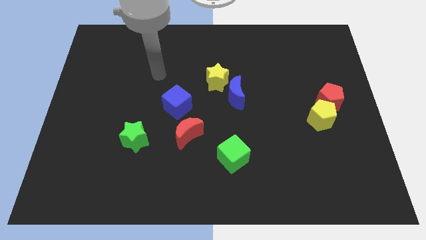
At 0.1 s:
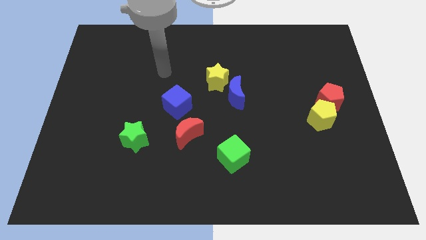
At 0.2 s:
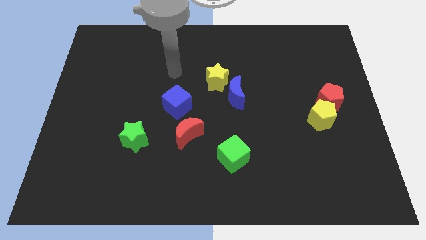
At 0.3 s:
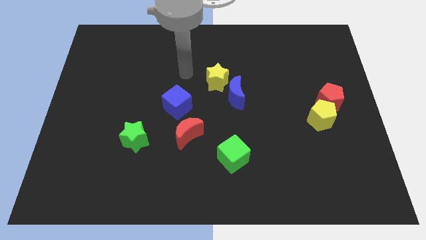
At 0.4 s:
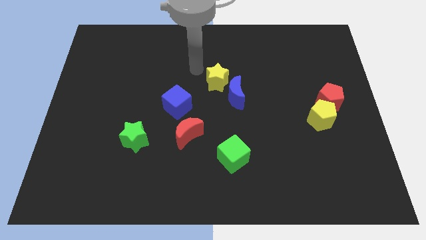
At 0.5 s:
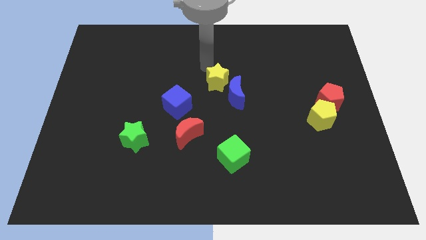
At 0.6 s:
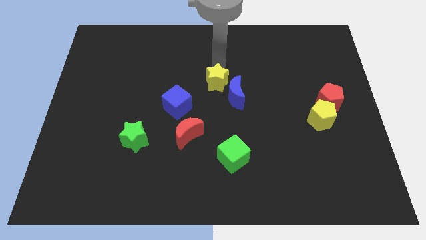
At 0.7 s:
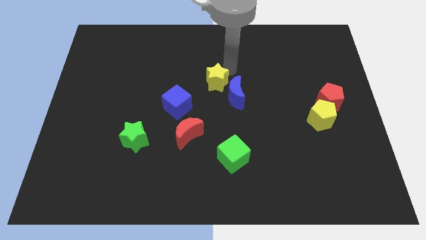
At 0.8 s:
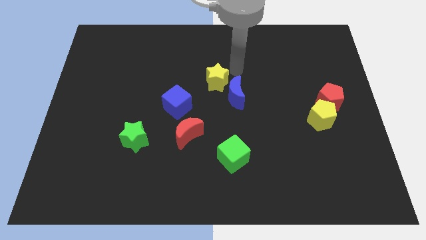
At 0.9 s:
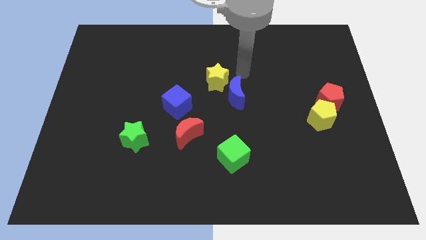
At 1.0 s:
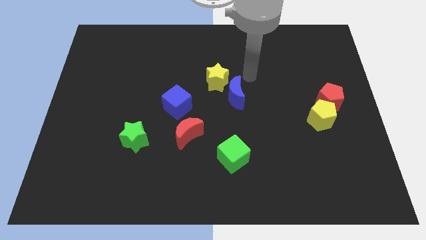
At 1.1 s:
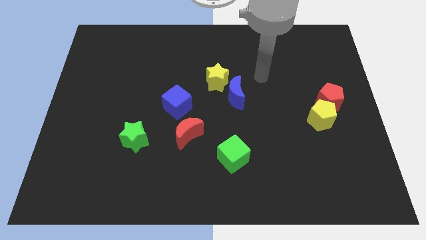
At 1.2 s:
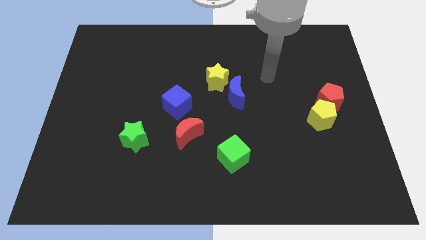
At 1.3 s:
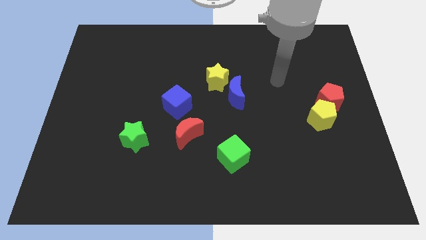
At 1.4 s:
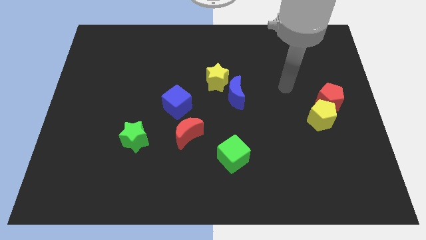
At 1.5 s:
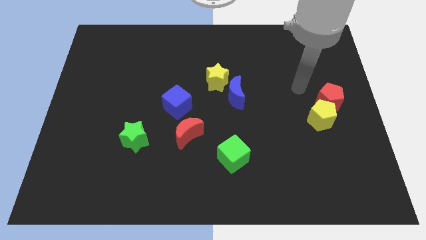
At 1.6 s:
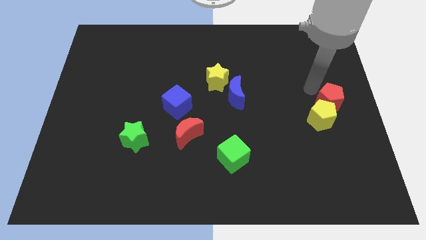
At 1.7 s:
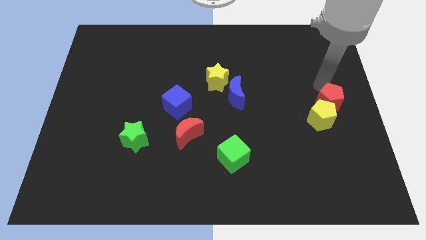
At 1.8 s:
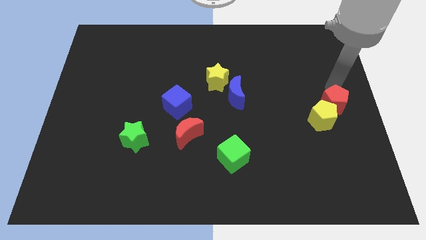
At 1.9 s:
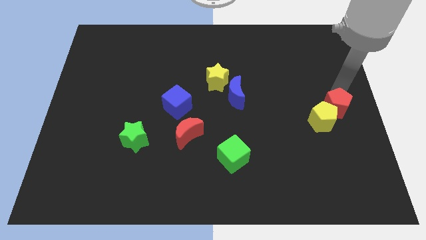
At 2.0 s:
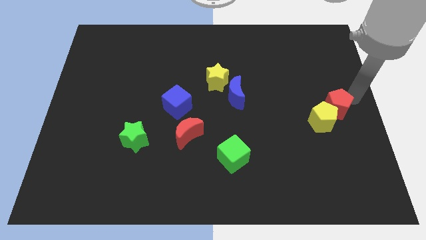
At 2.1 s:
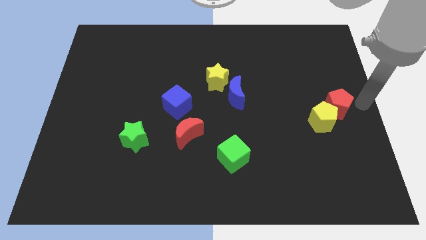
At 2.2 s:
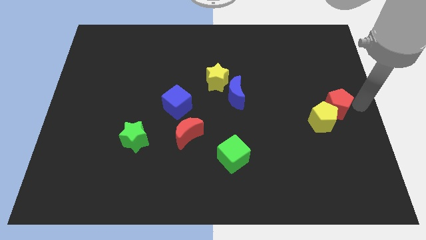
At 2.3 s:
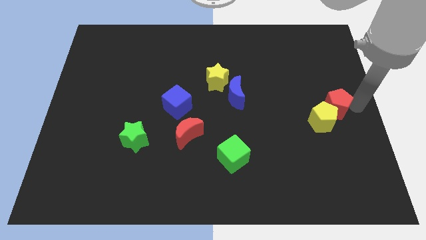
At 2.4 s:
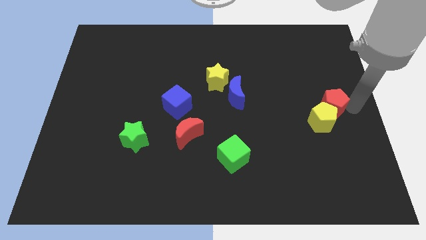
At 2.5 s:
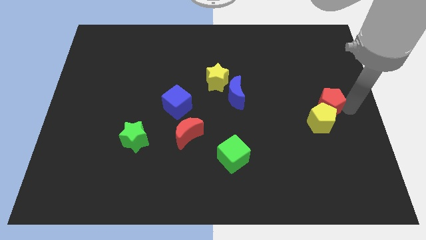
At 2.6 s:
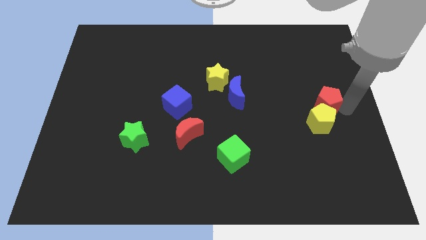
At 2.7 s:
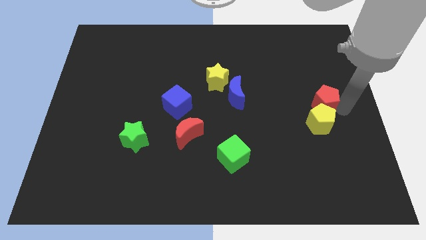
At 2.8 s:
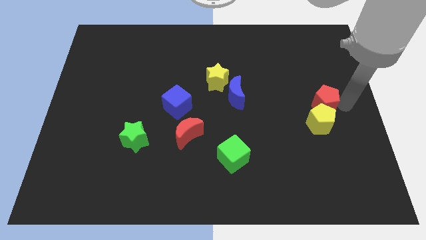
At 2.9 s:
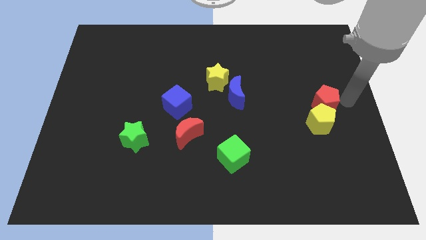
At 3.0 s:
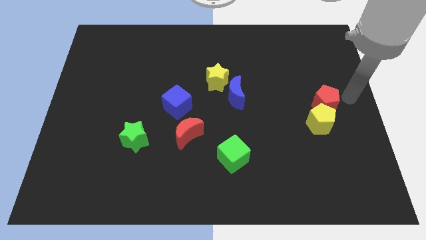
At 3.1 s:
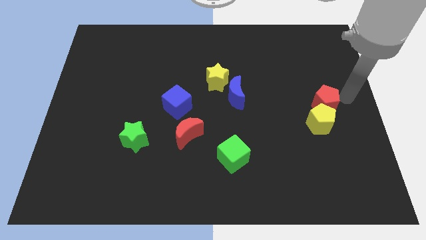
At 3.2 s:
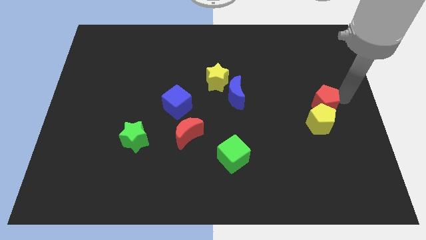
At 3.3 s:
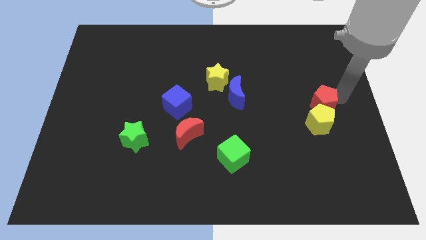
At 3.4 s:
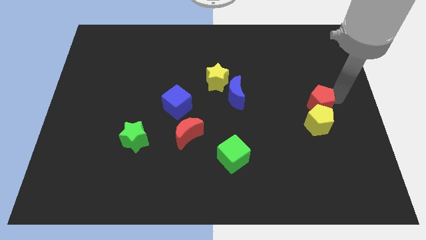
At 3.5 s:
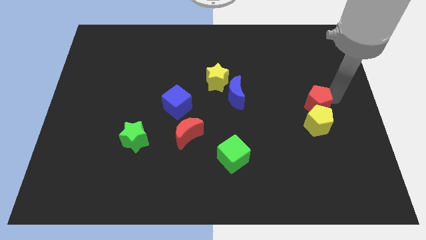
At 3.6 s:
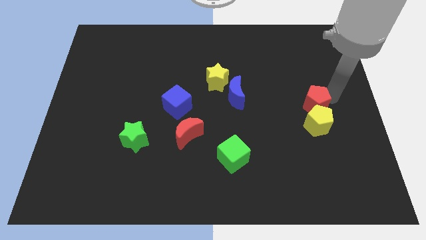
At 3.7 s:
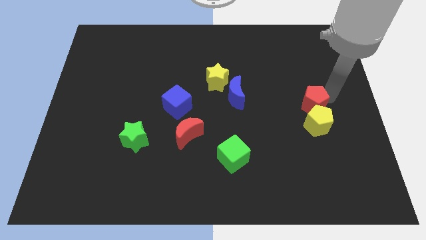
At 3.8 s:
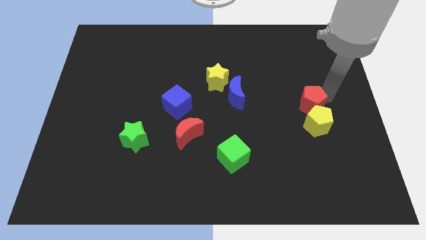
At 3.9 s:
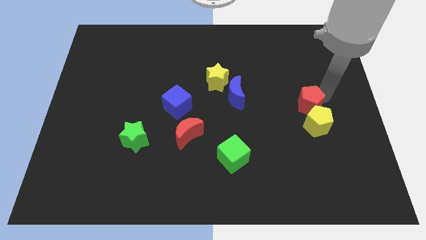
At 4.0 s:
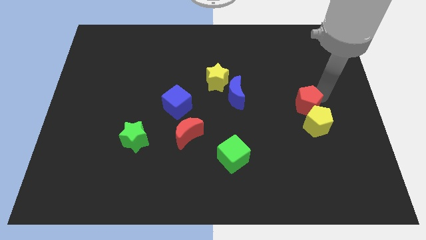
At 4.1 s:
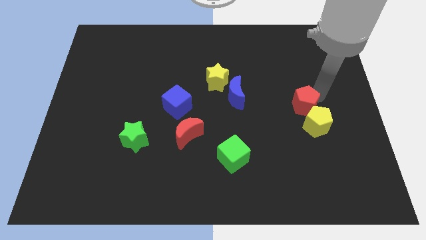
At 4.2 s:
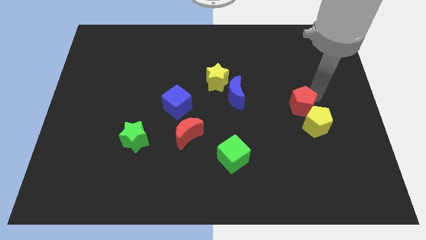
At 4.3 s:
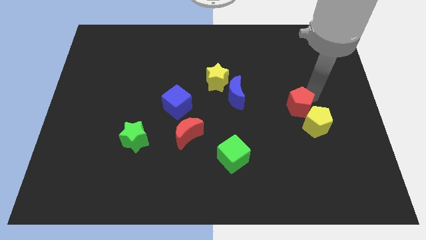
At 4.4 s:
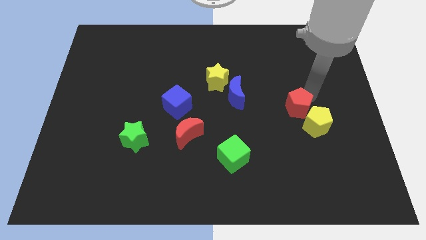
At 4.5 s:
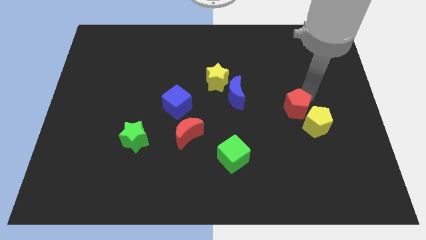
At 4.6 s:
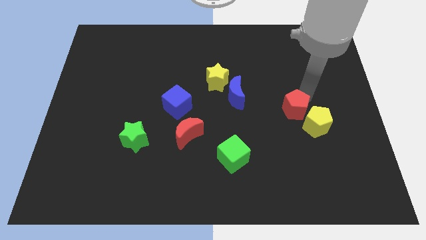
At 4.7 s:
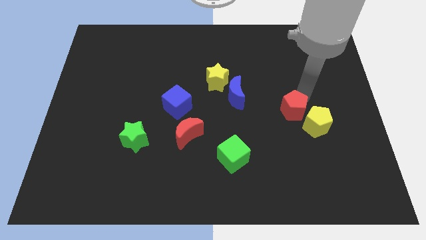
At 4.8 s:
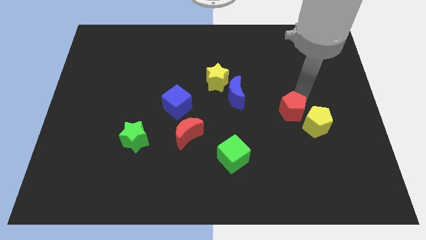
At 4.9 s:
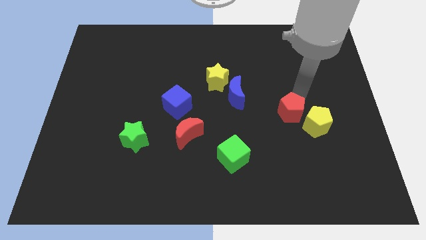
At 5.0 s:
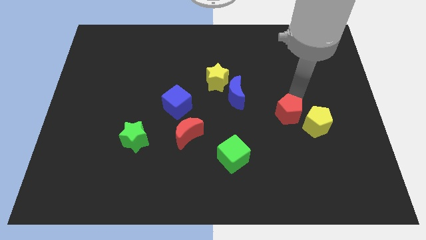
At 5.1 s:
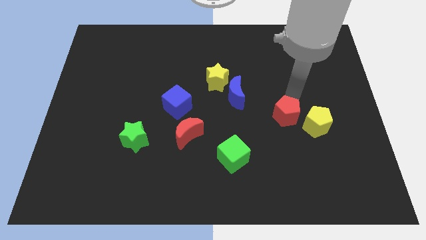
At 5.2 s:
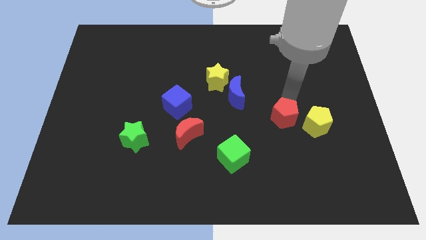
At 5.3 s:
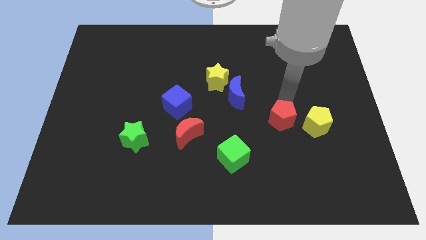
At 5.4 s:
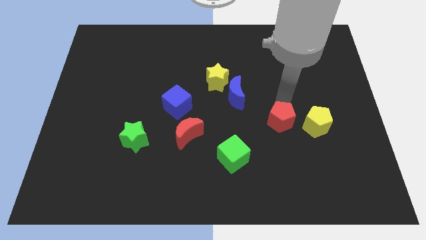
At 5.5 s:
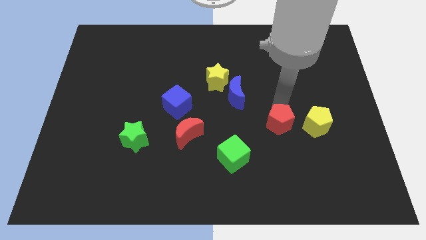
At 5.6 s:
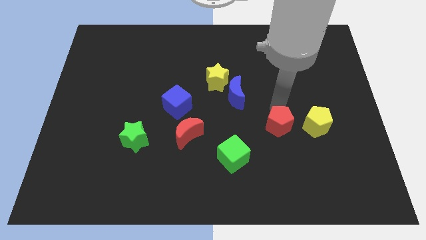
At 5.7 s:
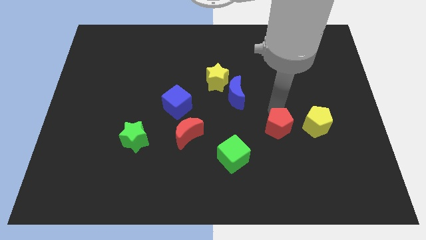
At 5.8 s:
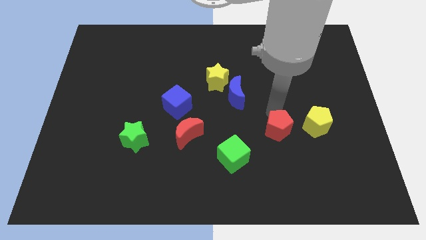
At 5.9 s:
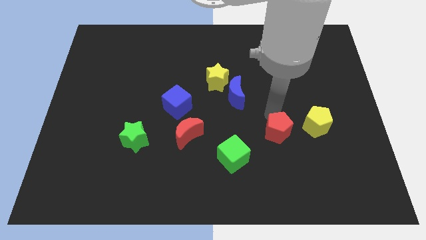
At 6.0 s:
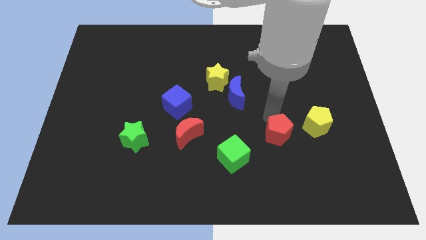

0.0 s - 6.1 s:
move the red pentagon to the bottom left side of the yellow pentagon
